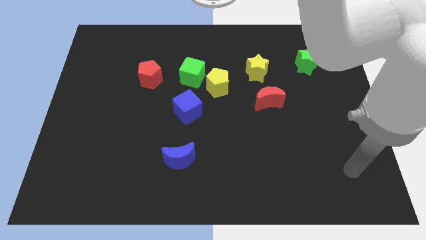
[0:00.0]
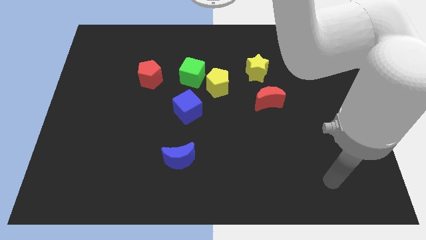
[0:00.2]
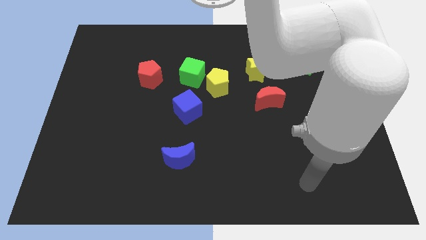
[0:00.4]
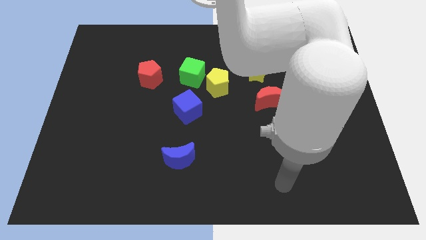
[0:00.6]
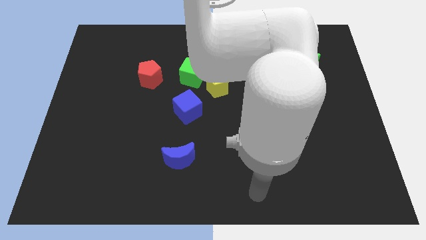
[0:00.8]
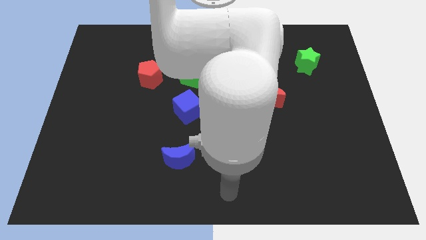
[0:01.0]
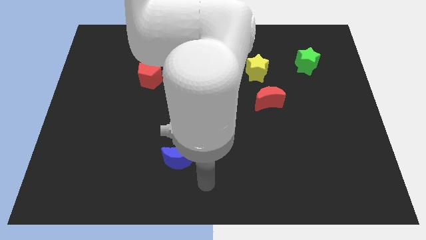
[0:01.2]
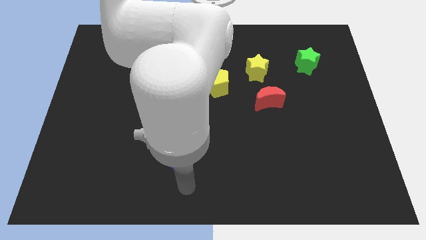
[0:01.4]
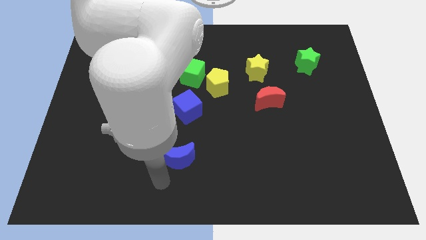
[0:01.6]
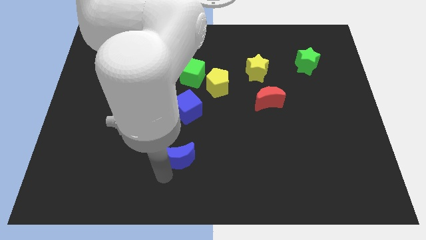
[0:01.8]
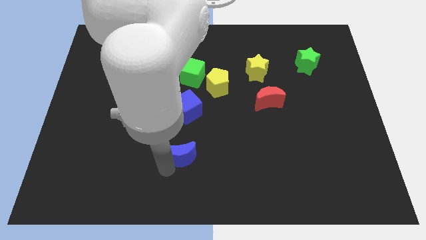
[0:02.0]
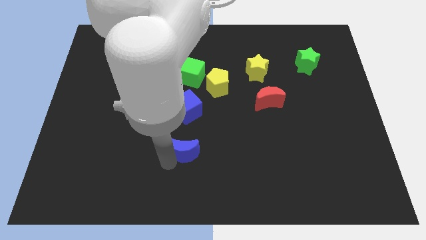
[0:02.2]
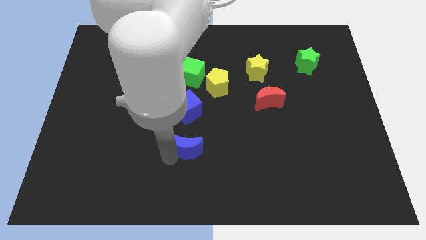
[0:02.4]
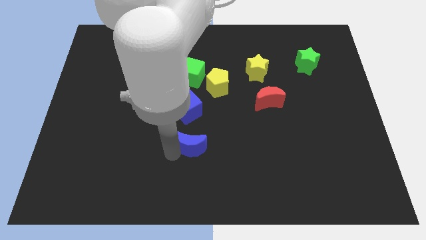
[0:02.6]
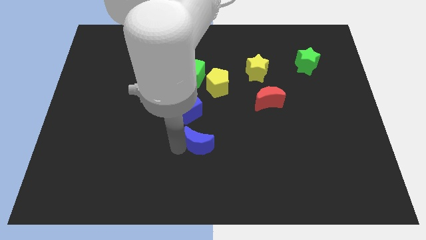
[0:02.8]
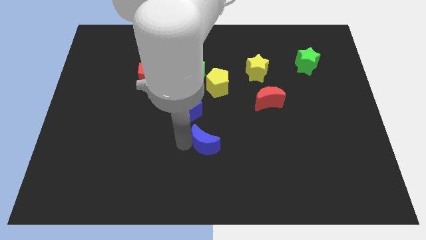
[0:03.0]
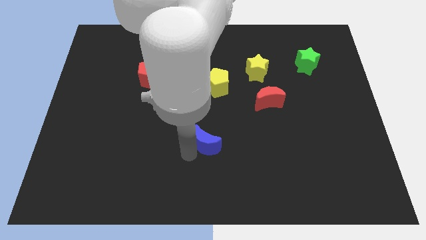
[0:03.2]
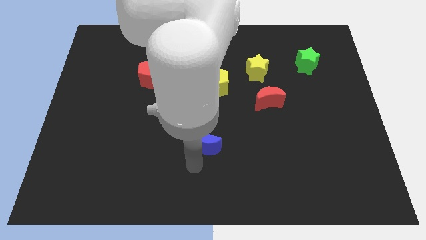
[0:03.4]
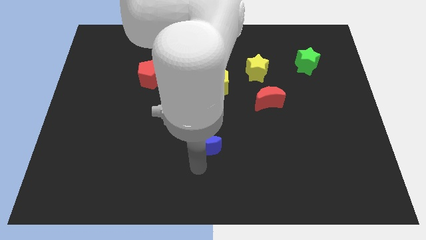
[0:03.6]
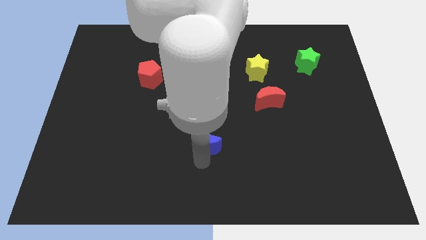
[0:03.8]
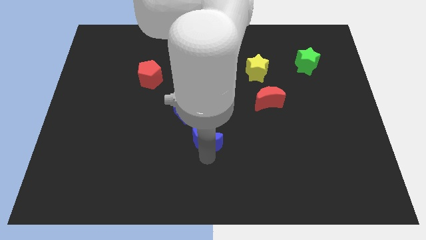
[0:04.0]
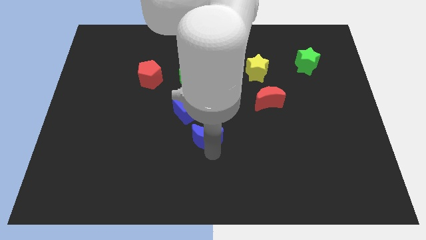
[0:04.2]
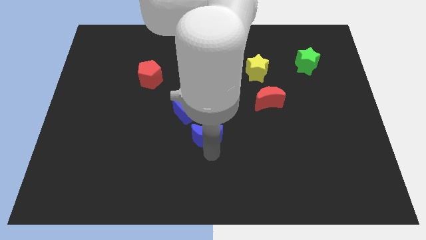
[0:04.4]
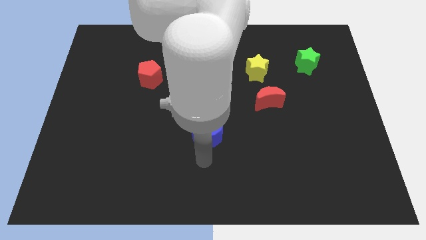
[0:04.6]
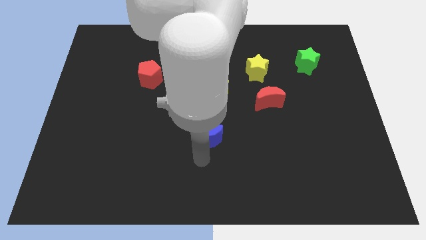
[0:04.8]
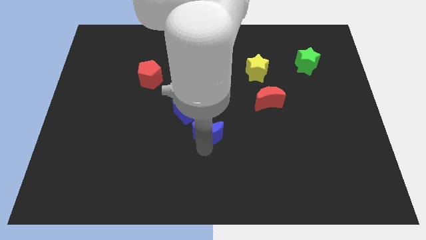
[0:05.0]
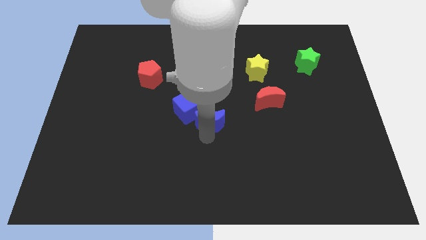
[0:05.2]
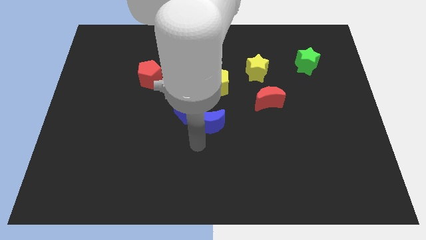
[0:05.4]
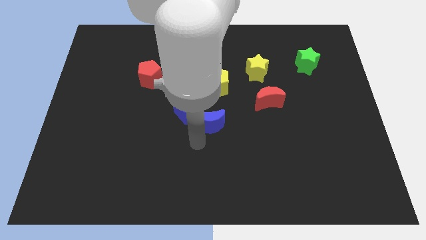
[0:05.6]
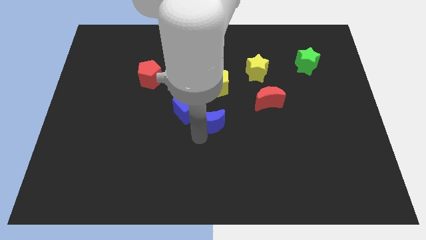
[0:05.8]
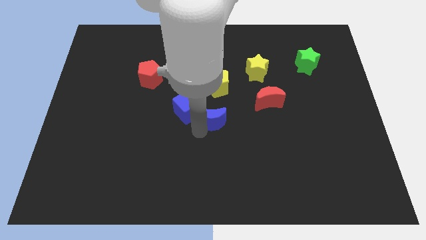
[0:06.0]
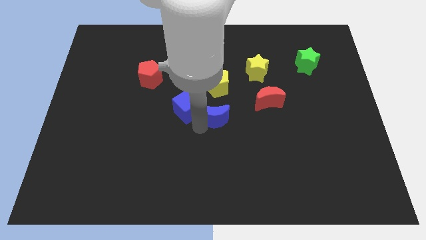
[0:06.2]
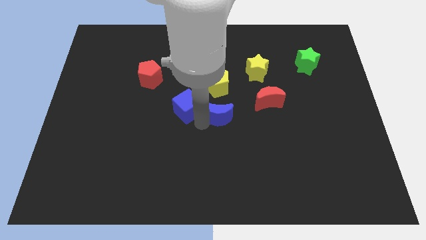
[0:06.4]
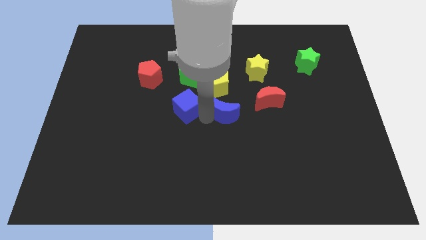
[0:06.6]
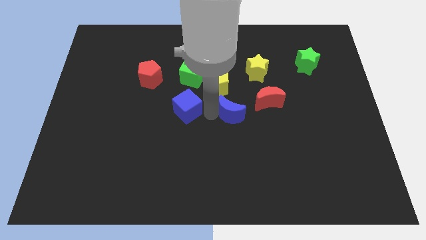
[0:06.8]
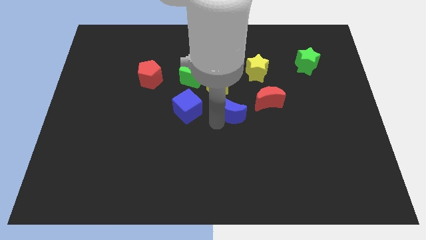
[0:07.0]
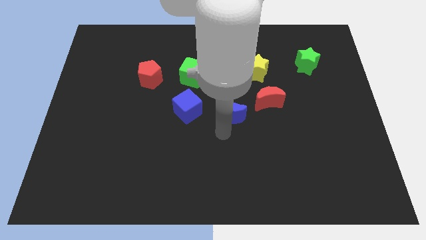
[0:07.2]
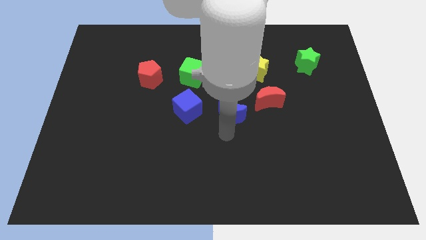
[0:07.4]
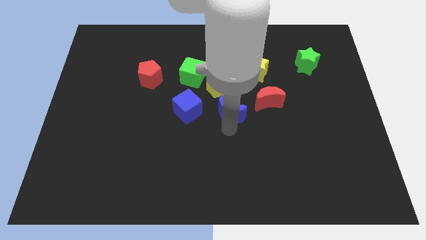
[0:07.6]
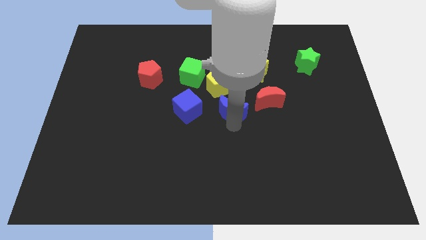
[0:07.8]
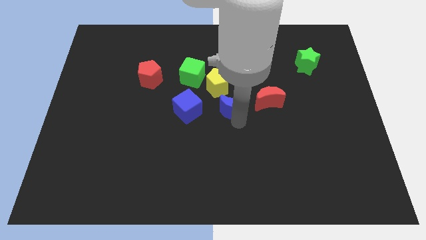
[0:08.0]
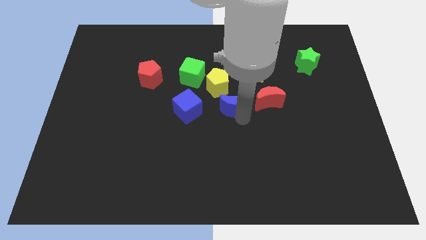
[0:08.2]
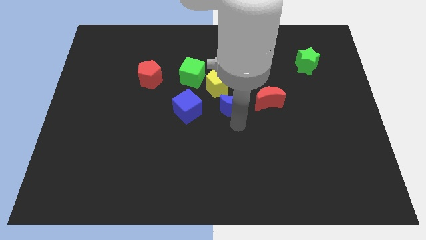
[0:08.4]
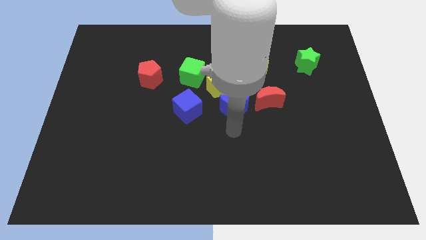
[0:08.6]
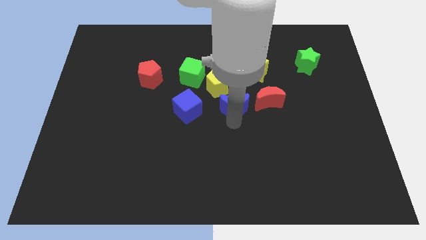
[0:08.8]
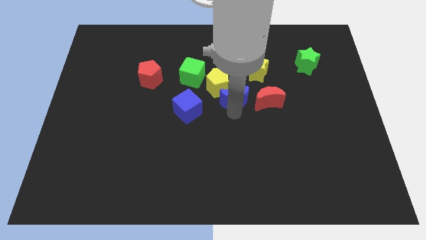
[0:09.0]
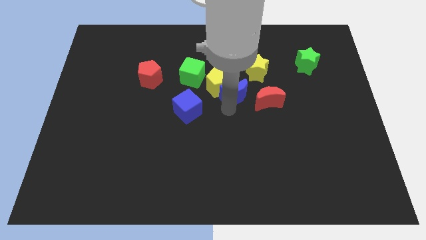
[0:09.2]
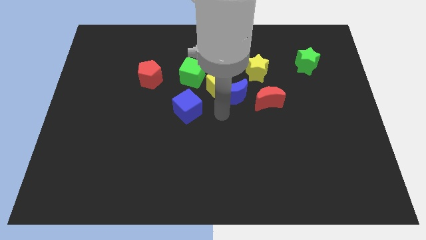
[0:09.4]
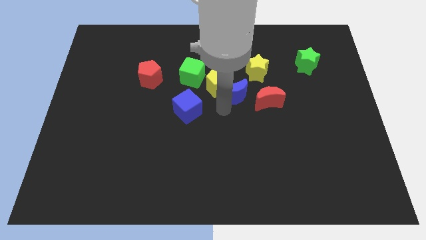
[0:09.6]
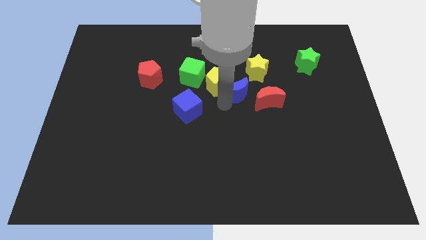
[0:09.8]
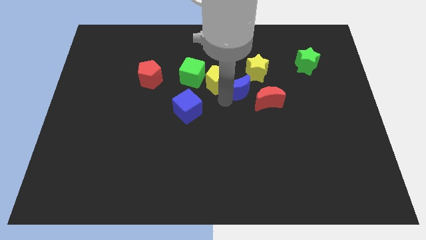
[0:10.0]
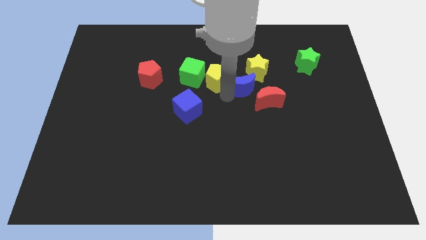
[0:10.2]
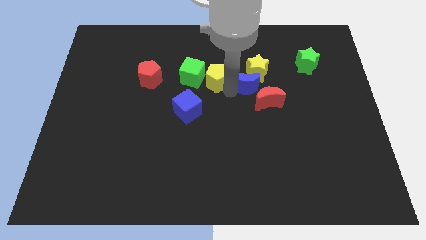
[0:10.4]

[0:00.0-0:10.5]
push the blue moon close to the yellow star

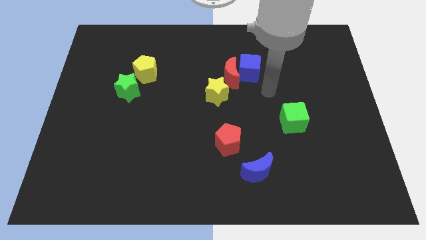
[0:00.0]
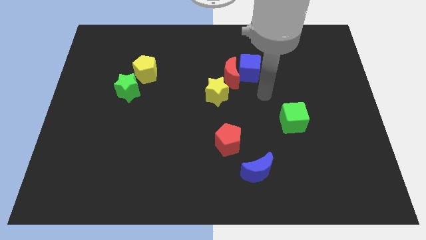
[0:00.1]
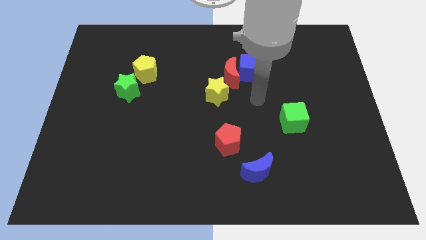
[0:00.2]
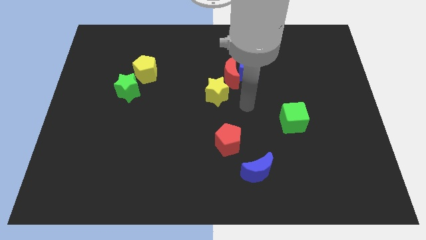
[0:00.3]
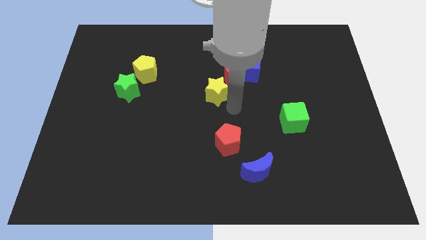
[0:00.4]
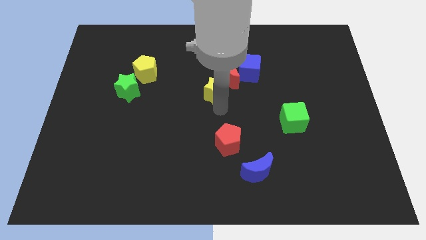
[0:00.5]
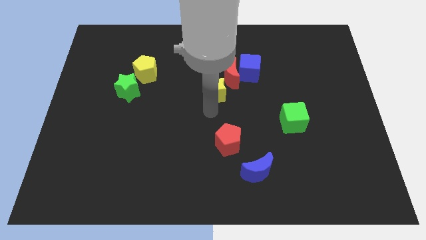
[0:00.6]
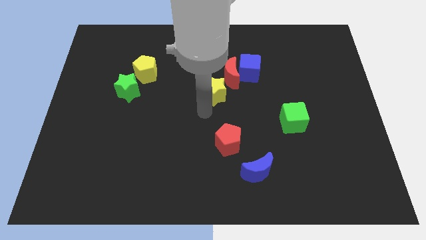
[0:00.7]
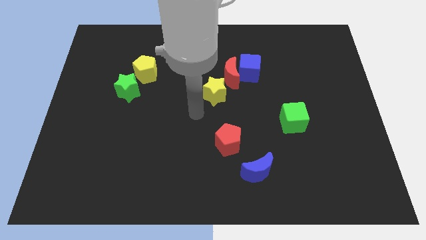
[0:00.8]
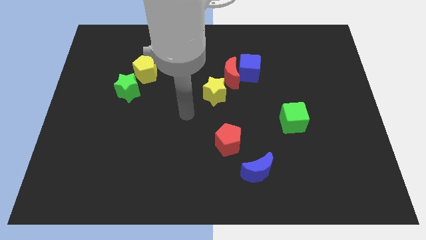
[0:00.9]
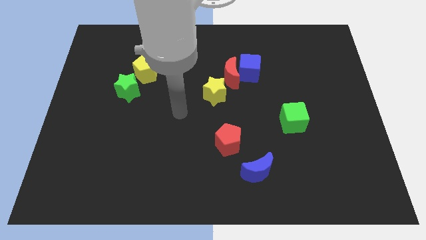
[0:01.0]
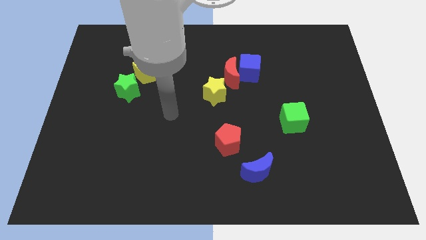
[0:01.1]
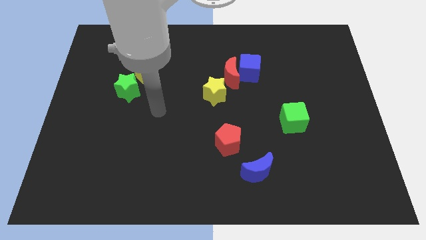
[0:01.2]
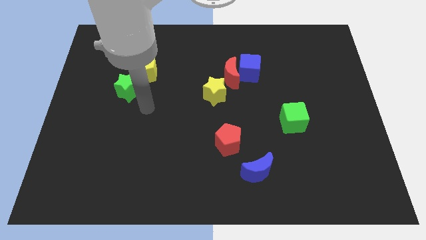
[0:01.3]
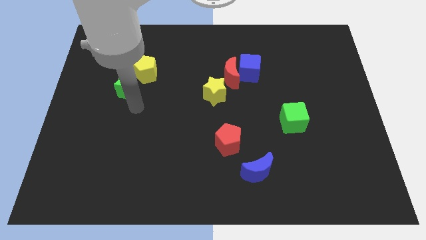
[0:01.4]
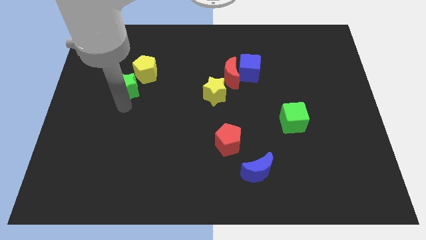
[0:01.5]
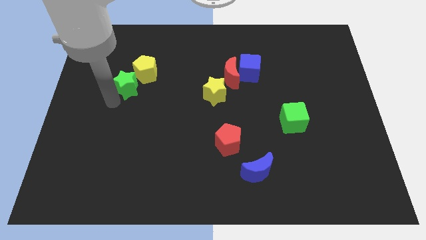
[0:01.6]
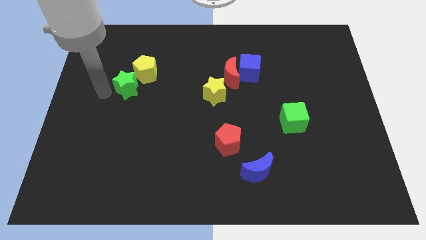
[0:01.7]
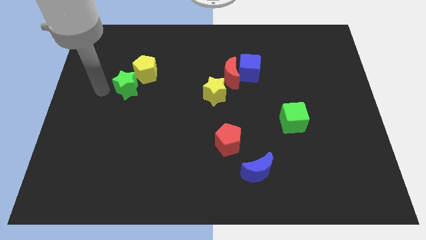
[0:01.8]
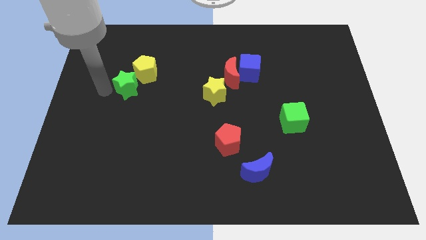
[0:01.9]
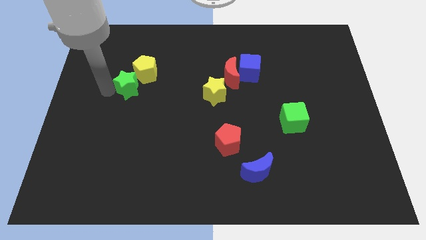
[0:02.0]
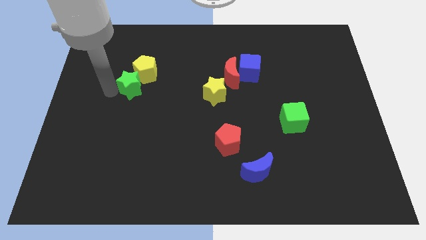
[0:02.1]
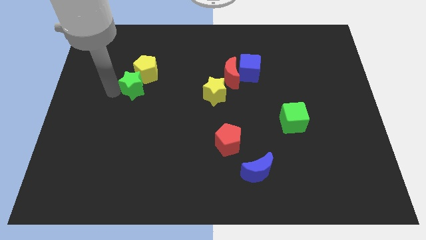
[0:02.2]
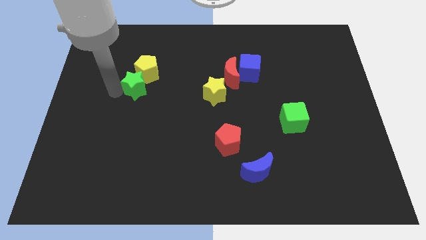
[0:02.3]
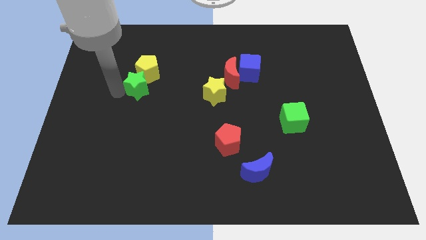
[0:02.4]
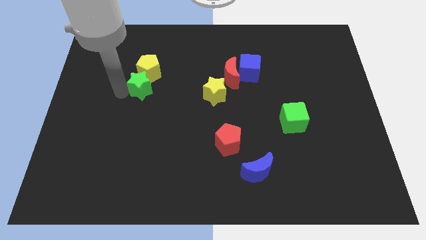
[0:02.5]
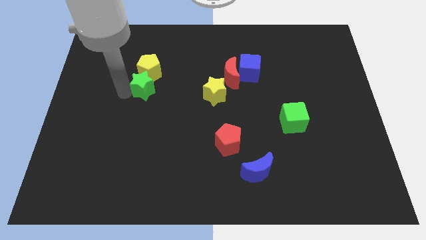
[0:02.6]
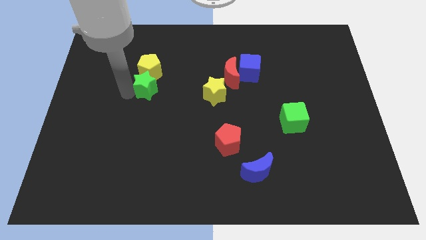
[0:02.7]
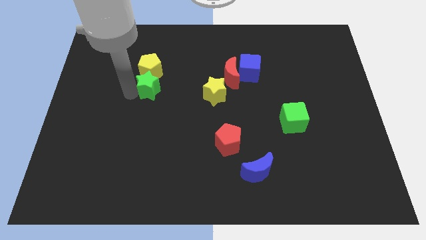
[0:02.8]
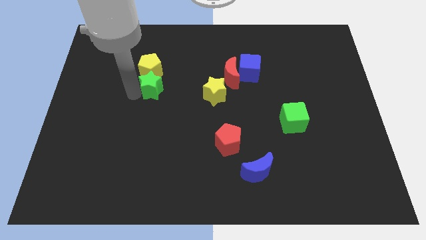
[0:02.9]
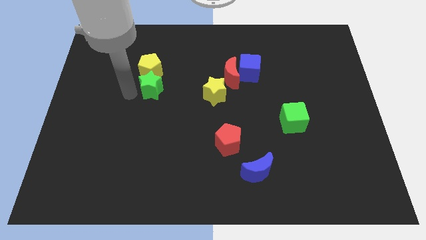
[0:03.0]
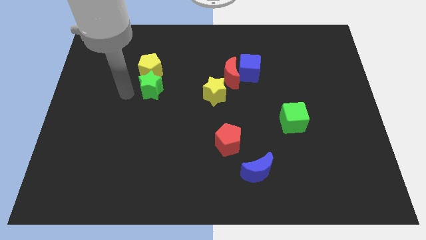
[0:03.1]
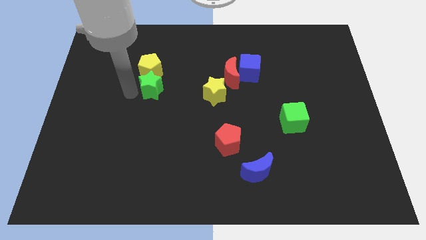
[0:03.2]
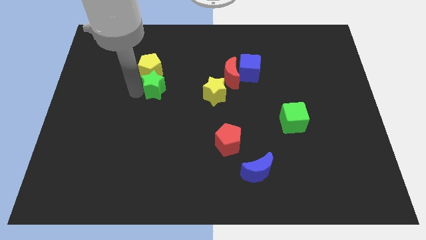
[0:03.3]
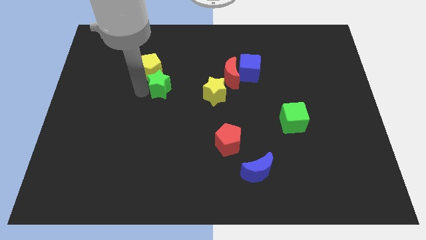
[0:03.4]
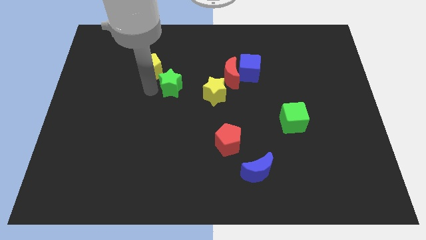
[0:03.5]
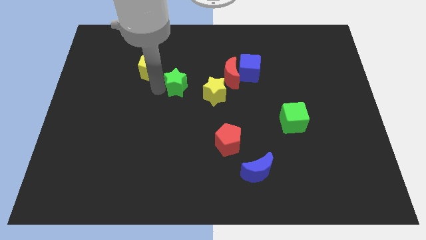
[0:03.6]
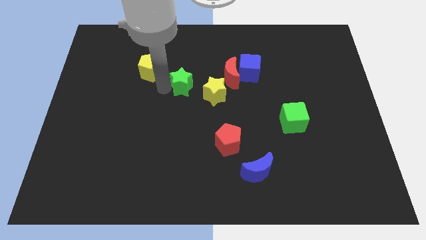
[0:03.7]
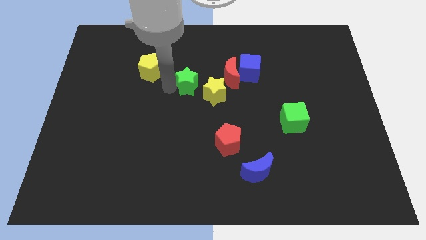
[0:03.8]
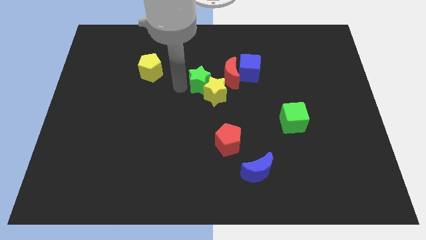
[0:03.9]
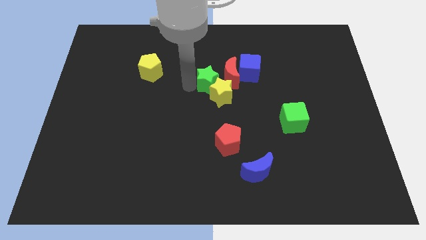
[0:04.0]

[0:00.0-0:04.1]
slide the green star close to the red moon
